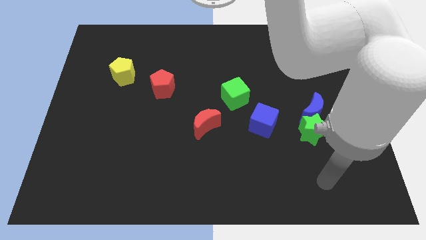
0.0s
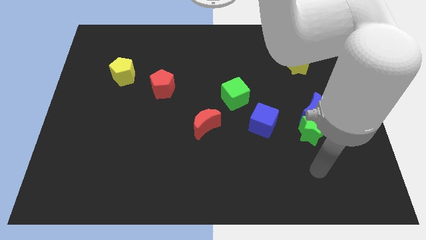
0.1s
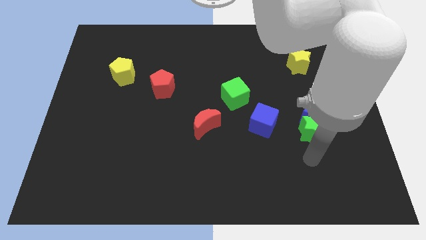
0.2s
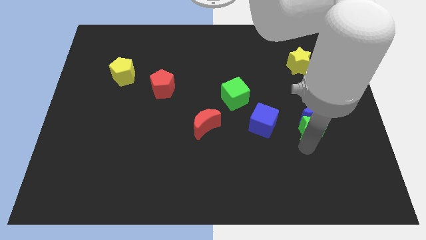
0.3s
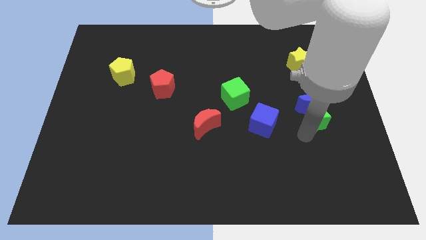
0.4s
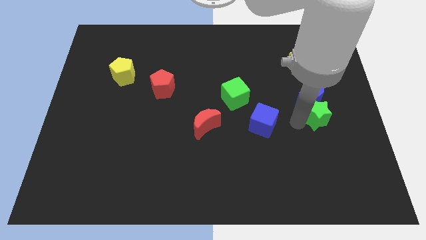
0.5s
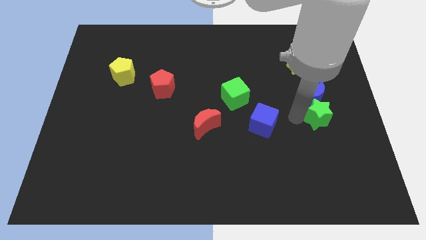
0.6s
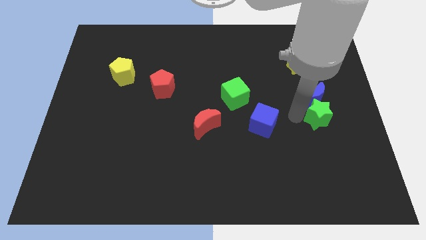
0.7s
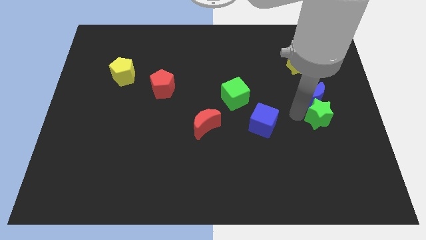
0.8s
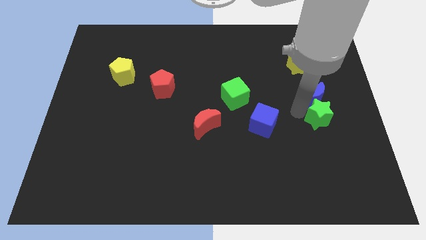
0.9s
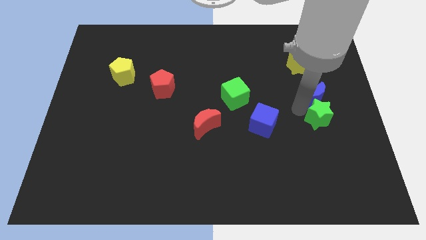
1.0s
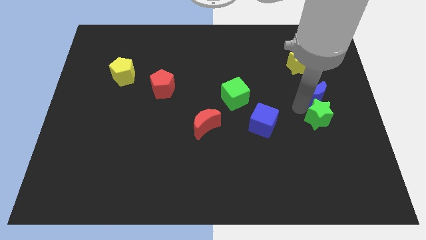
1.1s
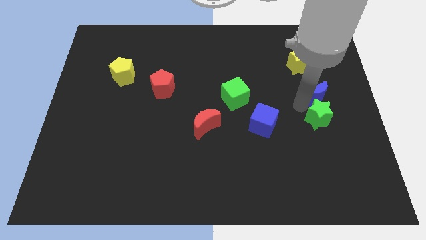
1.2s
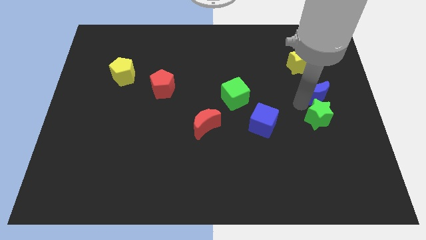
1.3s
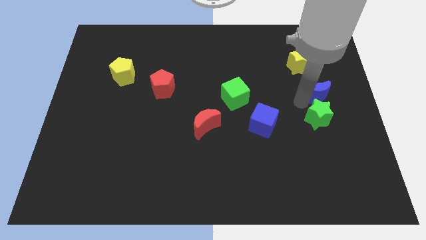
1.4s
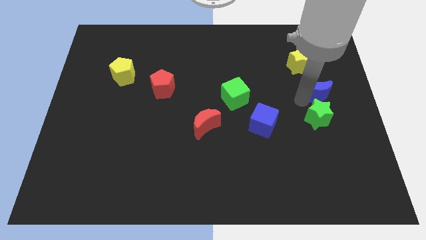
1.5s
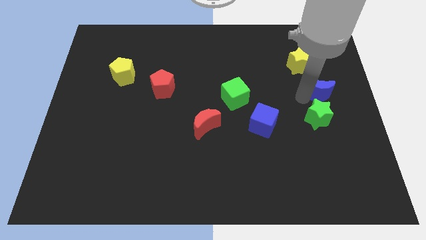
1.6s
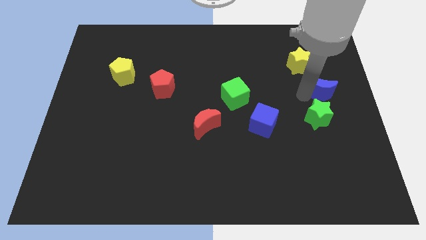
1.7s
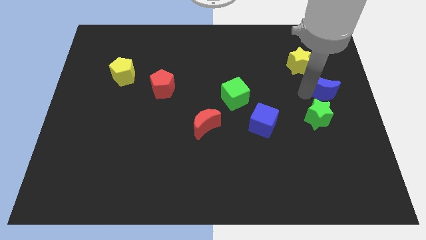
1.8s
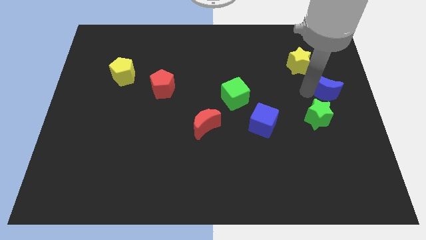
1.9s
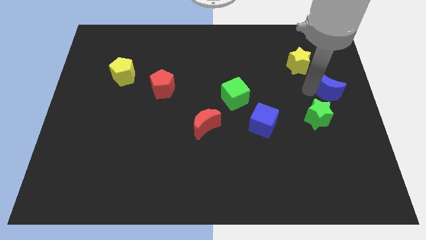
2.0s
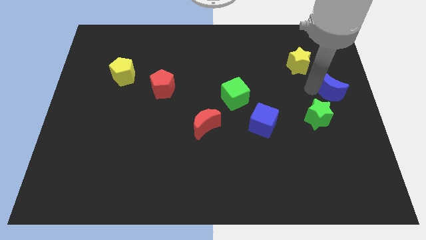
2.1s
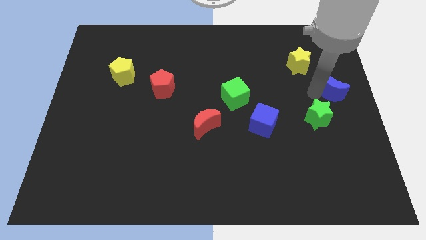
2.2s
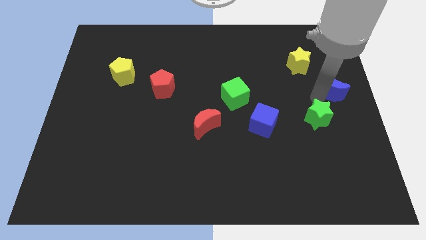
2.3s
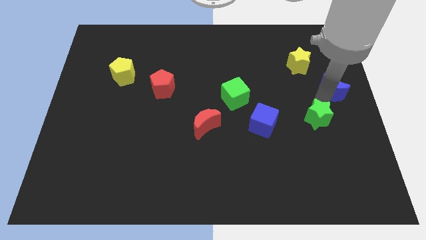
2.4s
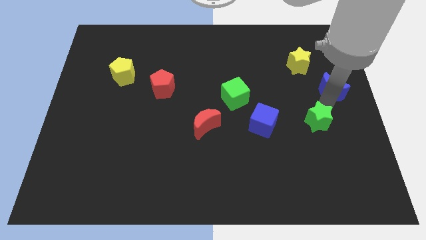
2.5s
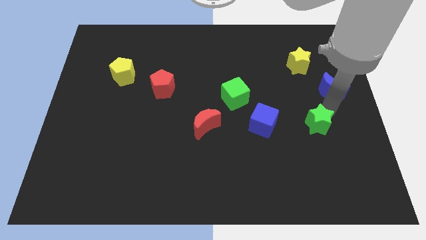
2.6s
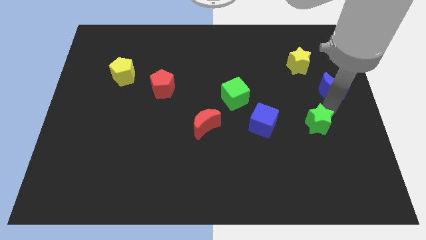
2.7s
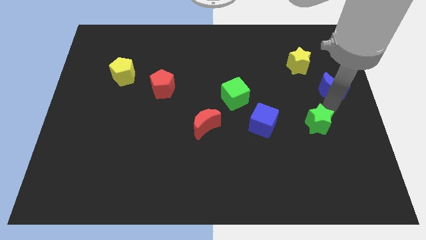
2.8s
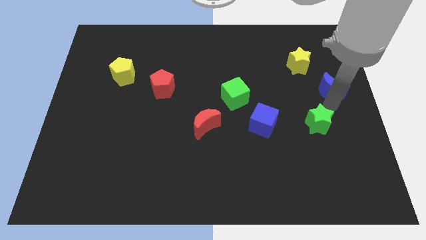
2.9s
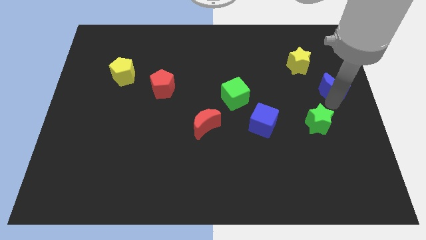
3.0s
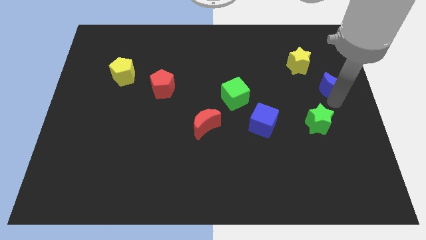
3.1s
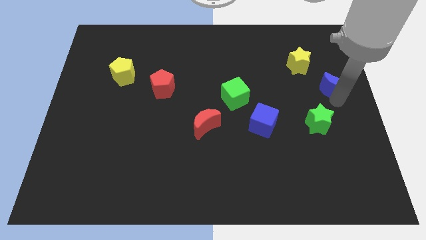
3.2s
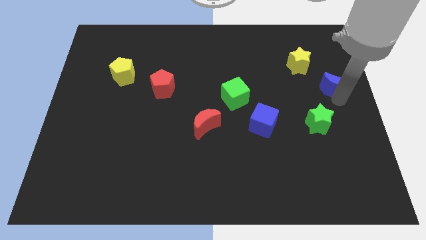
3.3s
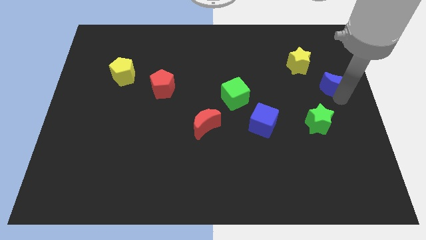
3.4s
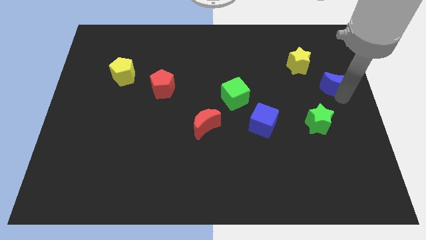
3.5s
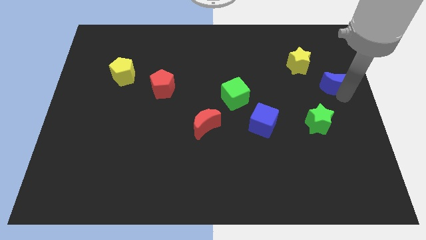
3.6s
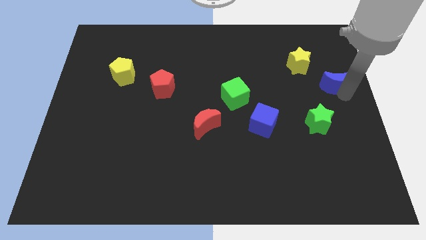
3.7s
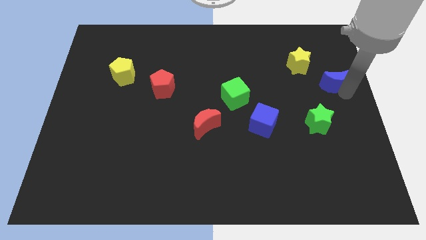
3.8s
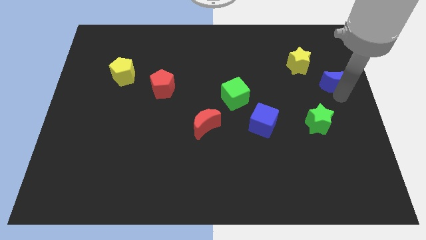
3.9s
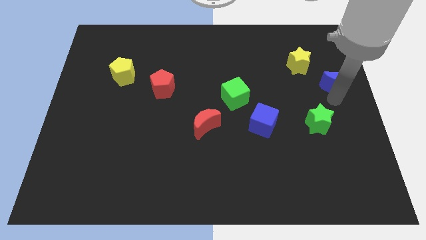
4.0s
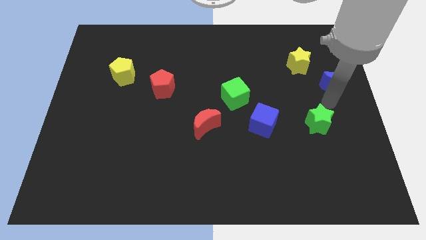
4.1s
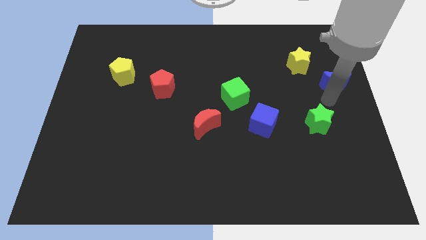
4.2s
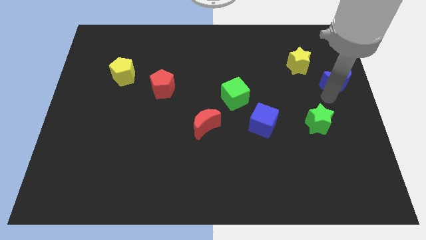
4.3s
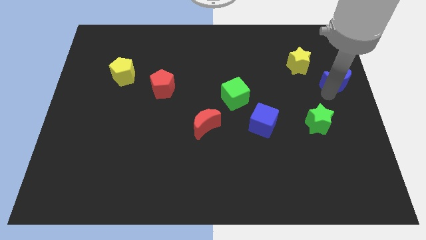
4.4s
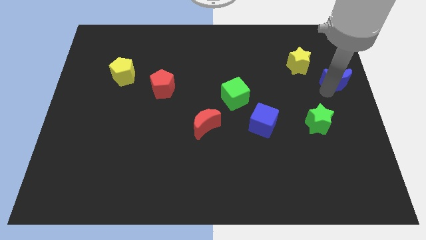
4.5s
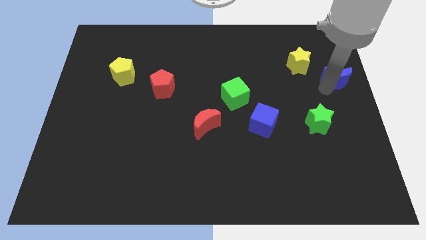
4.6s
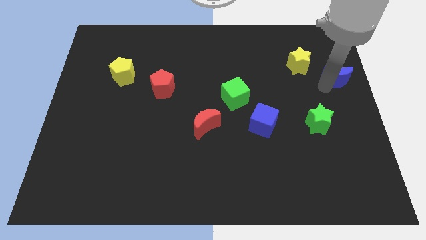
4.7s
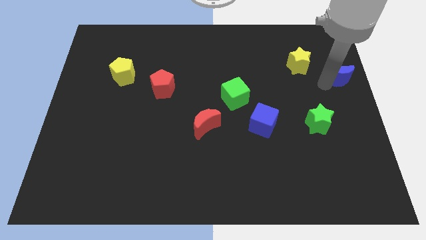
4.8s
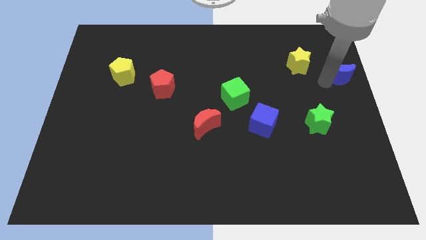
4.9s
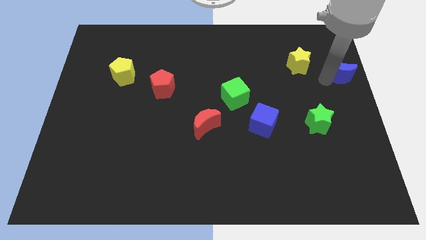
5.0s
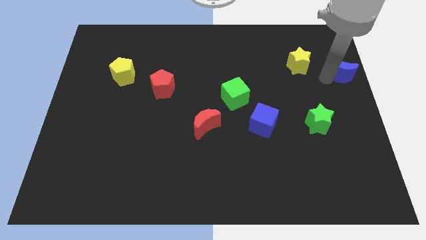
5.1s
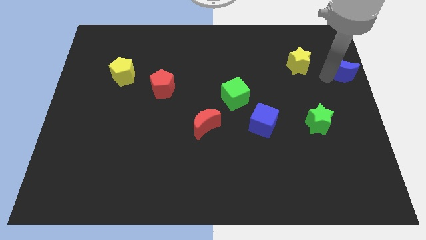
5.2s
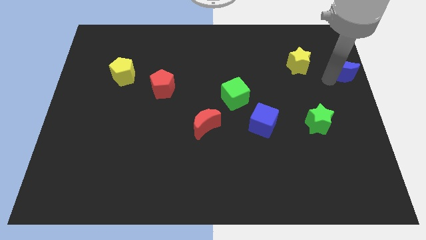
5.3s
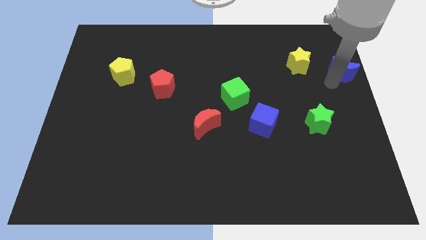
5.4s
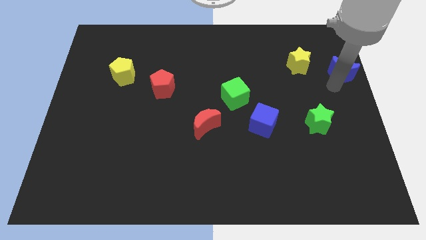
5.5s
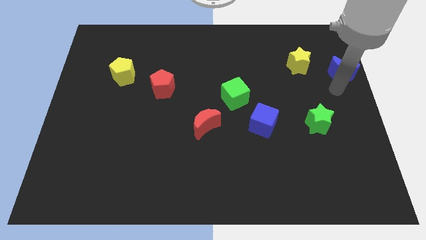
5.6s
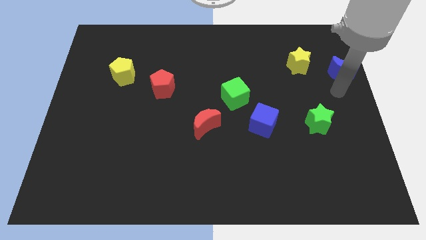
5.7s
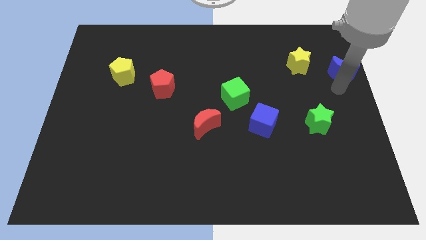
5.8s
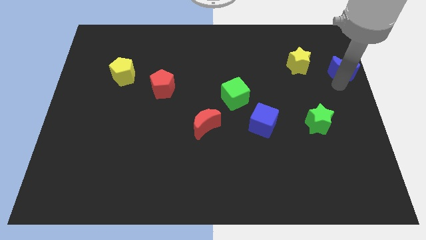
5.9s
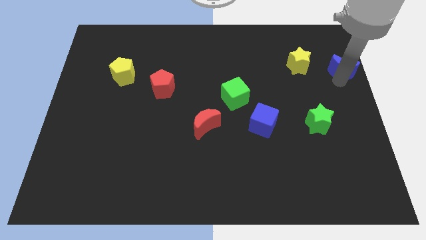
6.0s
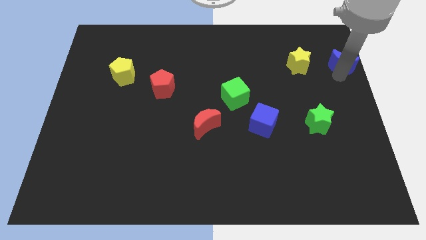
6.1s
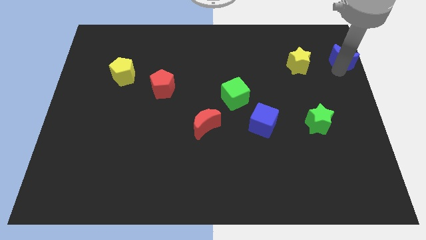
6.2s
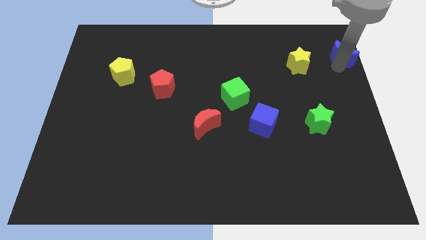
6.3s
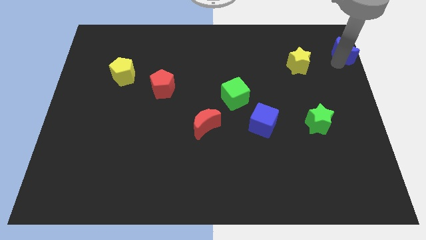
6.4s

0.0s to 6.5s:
move the blue moon to the top right

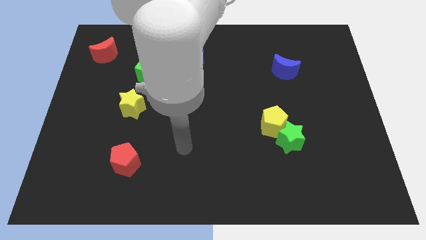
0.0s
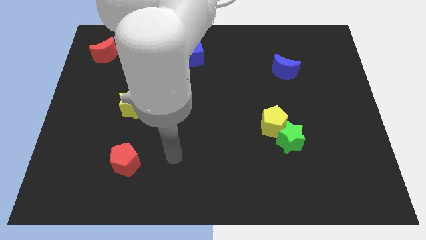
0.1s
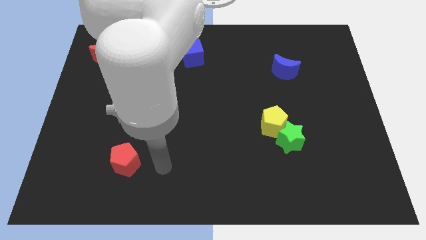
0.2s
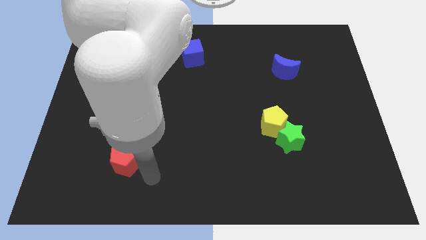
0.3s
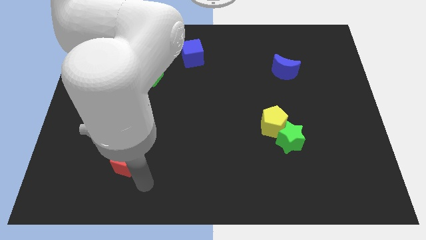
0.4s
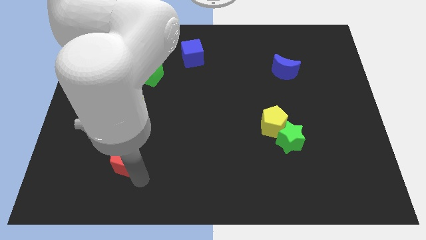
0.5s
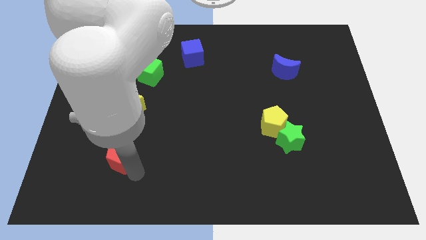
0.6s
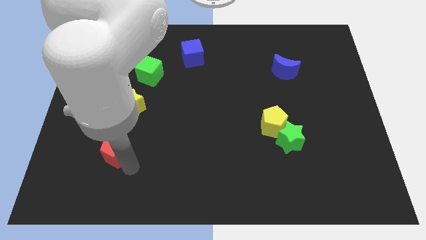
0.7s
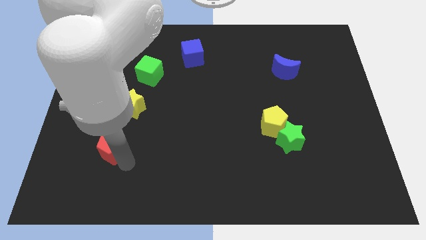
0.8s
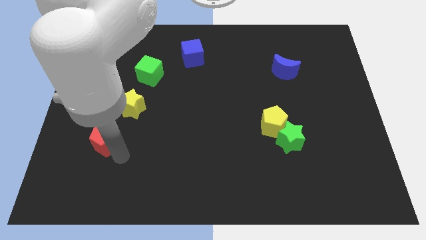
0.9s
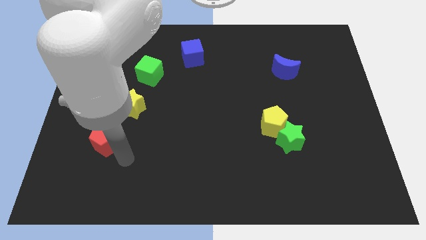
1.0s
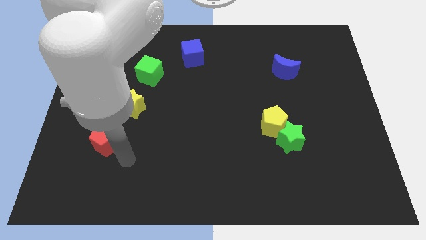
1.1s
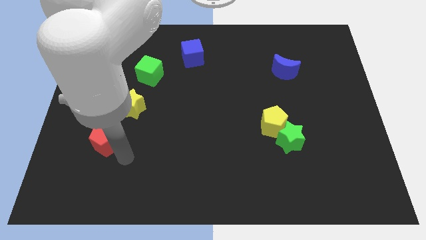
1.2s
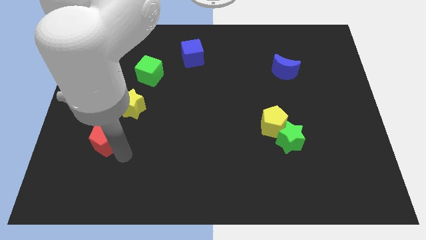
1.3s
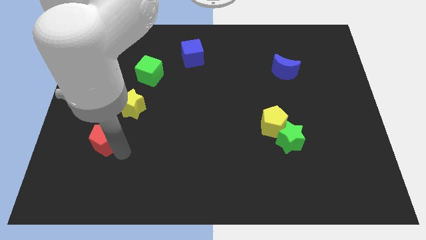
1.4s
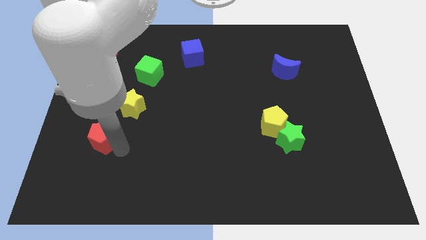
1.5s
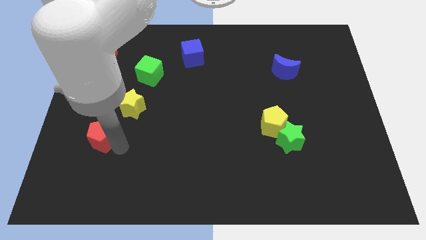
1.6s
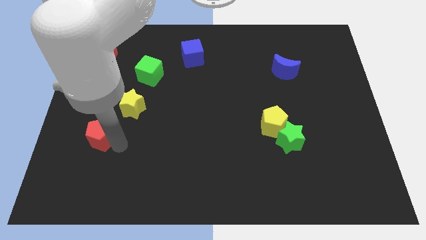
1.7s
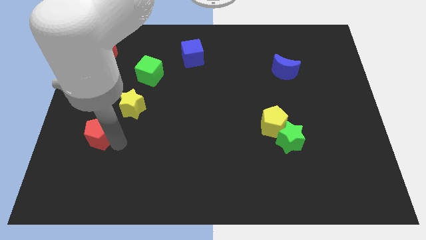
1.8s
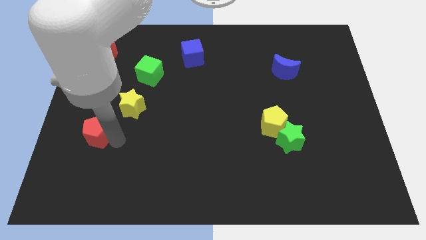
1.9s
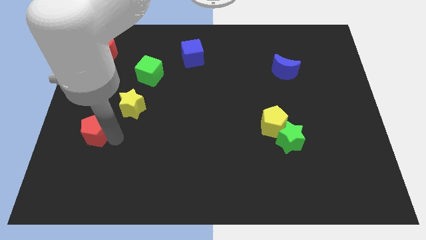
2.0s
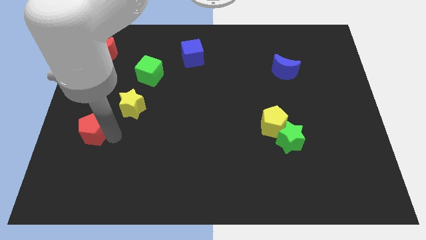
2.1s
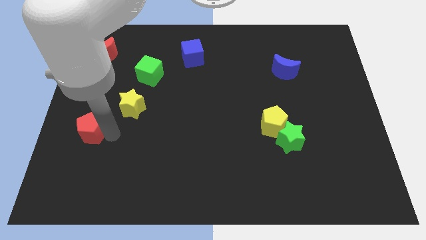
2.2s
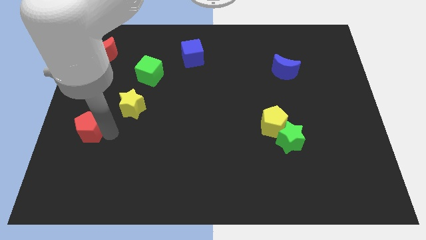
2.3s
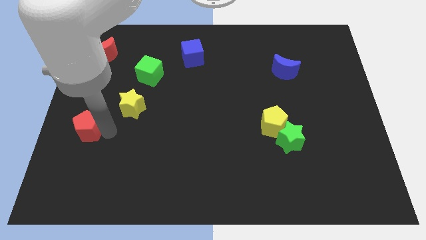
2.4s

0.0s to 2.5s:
slide the red pentagon to the center left
